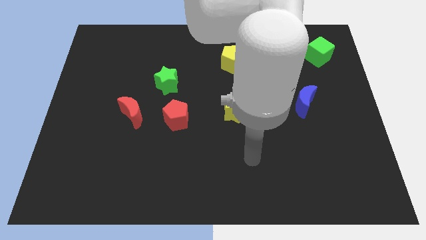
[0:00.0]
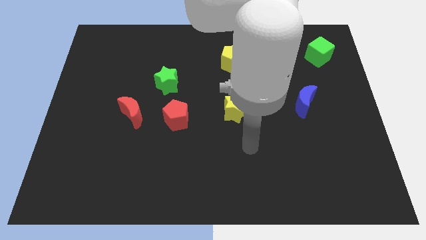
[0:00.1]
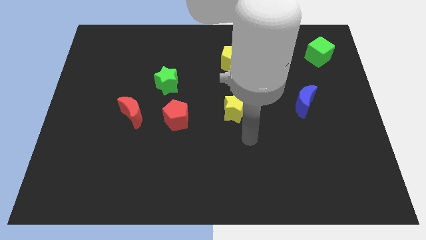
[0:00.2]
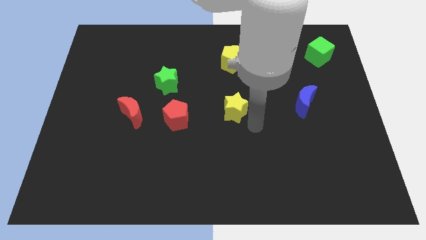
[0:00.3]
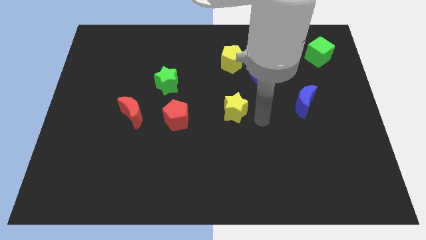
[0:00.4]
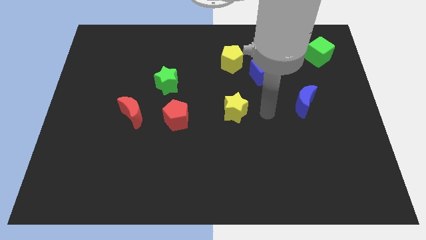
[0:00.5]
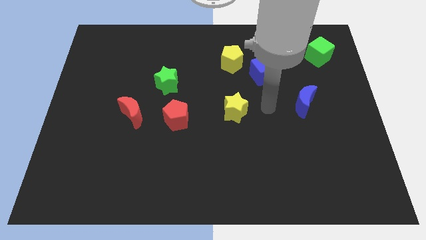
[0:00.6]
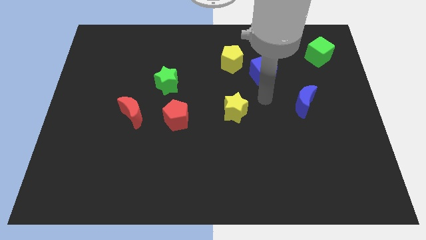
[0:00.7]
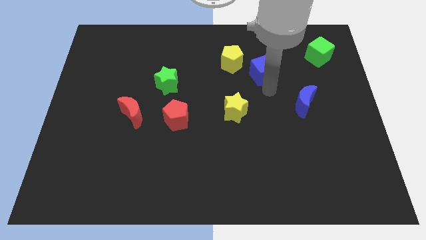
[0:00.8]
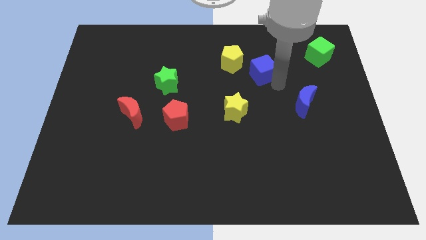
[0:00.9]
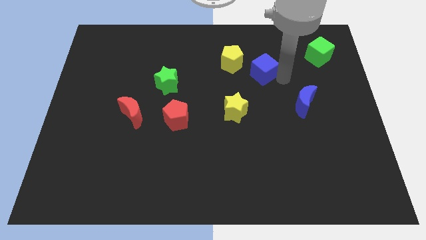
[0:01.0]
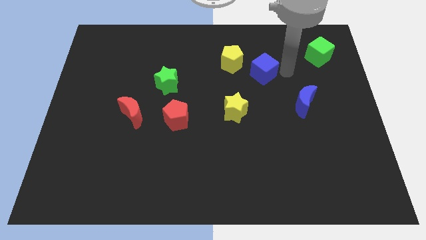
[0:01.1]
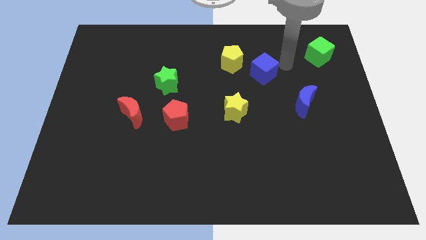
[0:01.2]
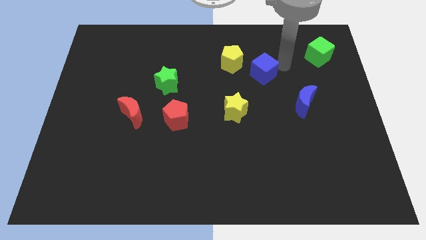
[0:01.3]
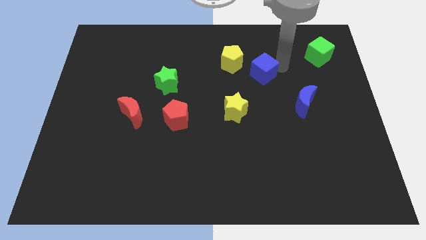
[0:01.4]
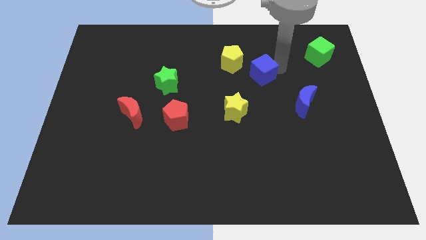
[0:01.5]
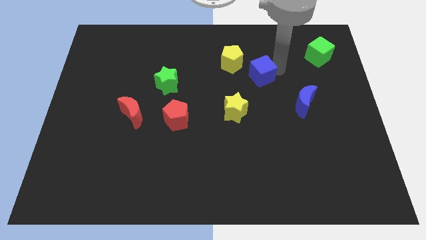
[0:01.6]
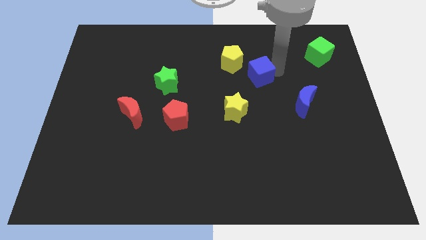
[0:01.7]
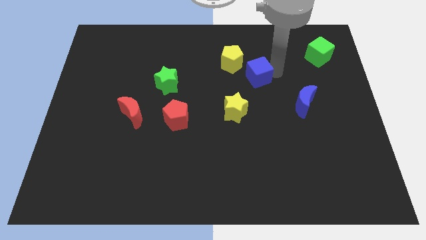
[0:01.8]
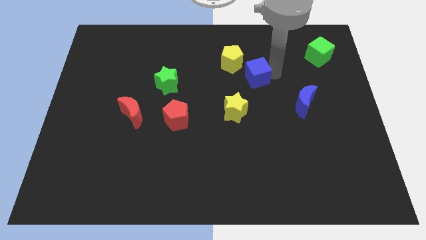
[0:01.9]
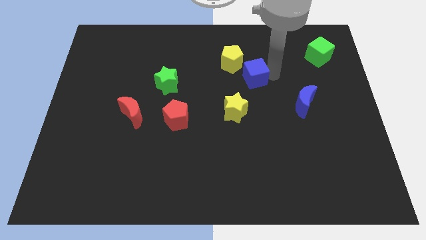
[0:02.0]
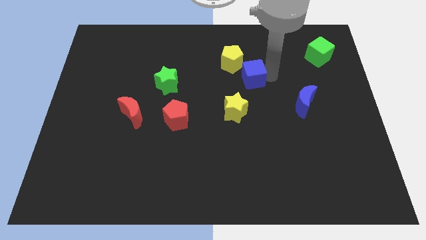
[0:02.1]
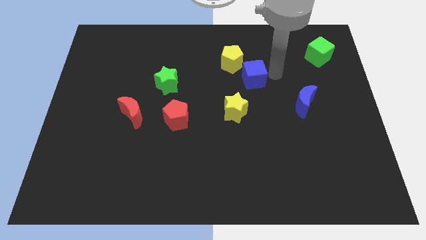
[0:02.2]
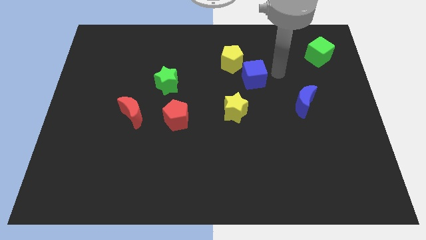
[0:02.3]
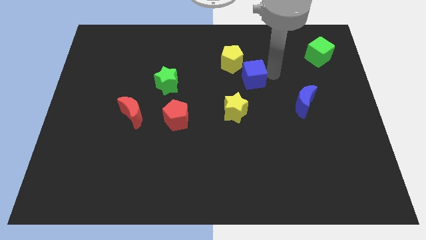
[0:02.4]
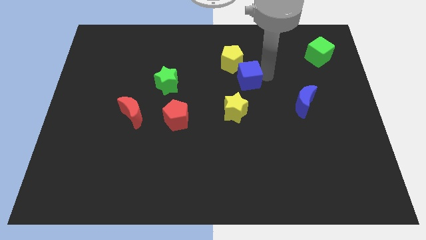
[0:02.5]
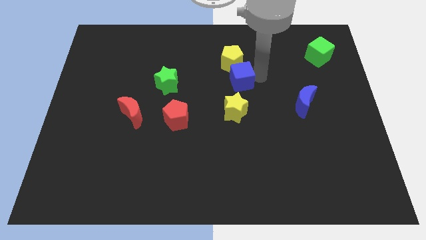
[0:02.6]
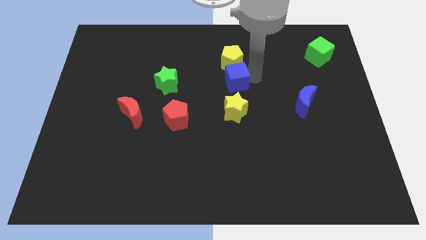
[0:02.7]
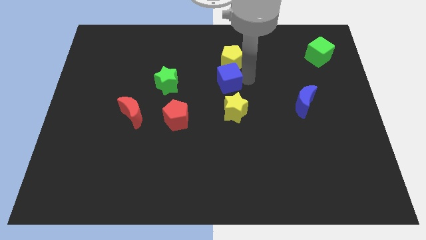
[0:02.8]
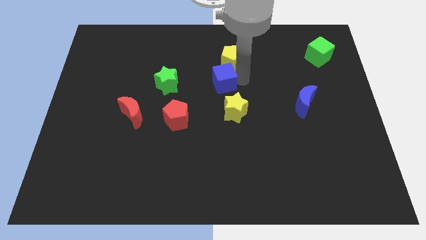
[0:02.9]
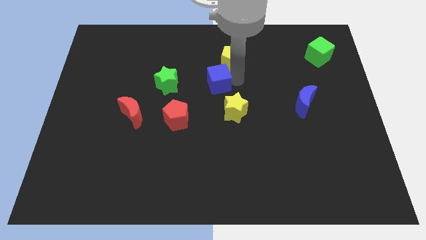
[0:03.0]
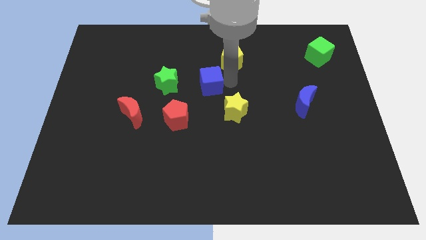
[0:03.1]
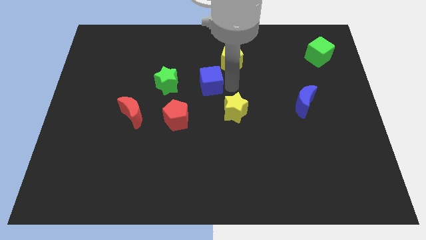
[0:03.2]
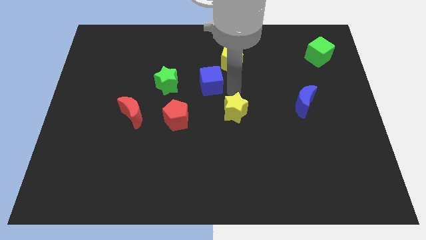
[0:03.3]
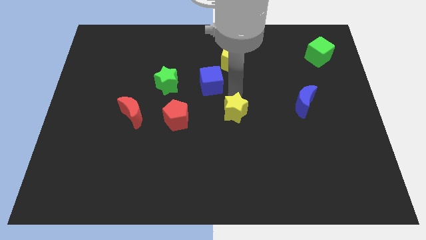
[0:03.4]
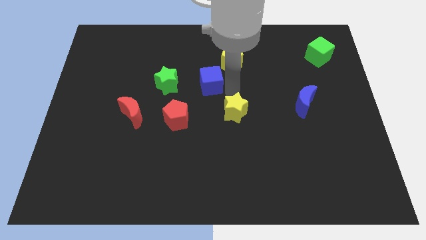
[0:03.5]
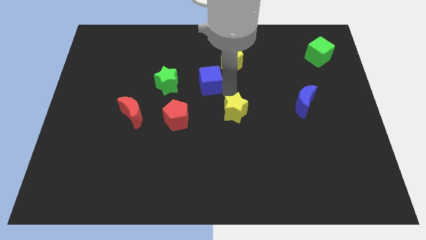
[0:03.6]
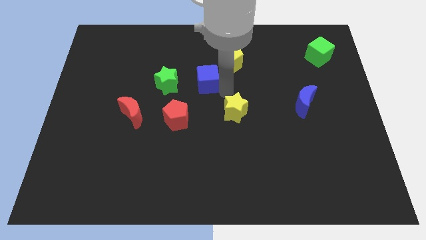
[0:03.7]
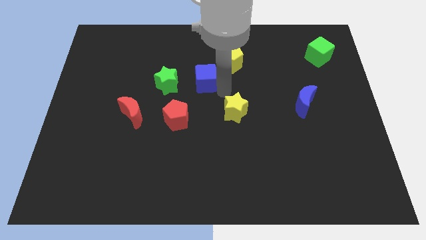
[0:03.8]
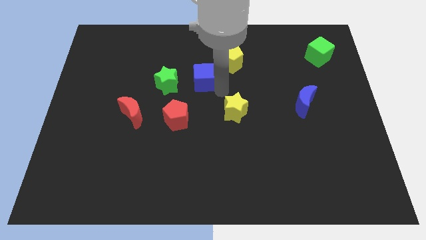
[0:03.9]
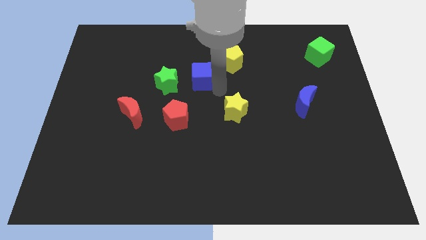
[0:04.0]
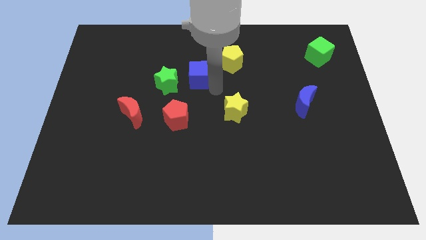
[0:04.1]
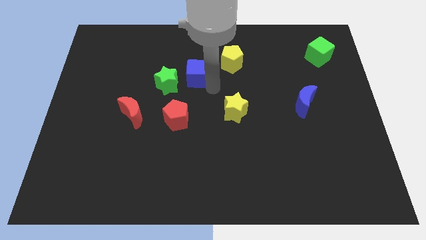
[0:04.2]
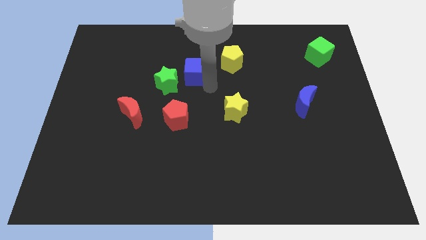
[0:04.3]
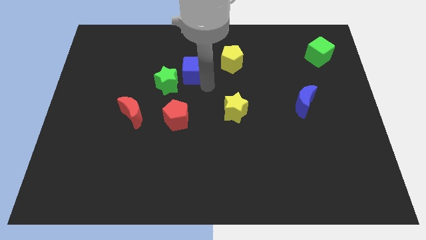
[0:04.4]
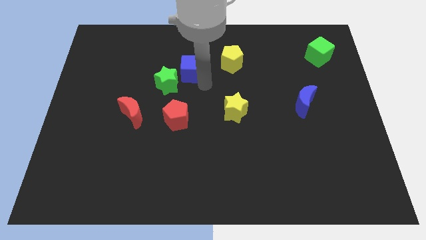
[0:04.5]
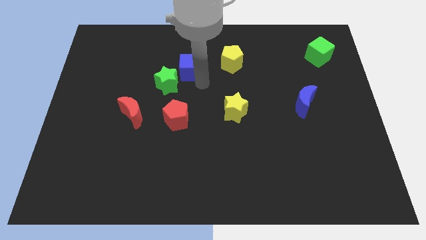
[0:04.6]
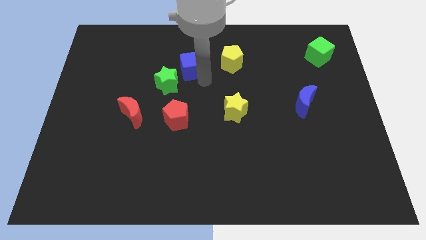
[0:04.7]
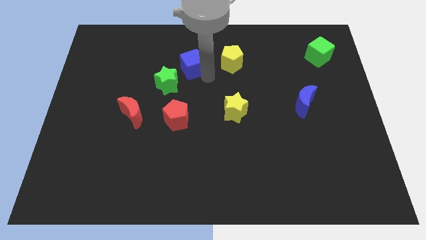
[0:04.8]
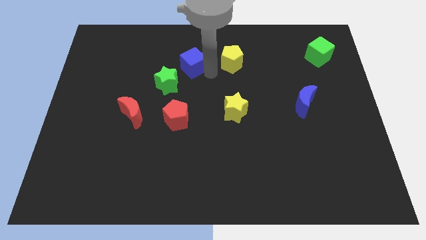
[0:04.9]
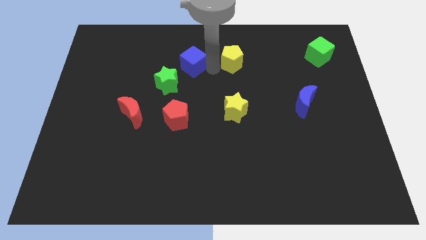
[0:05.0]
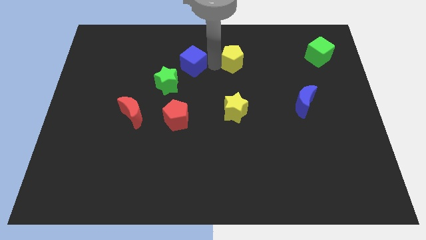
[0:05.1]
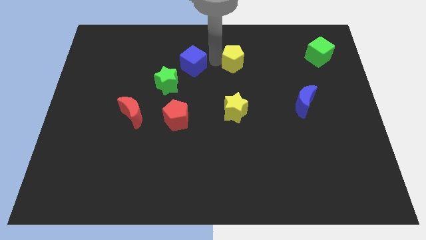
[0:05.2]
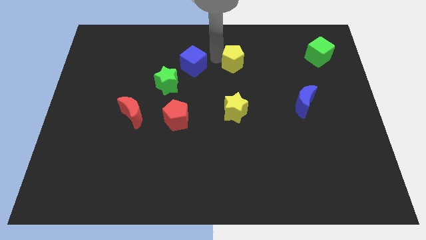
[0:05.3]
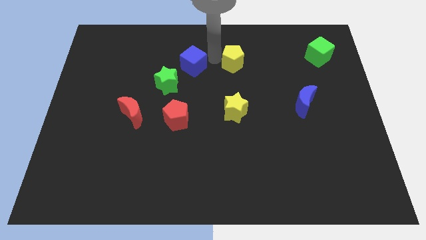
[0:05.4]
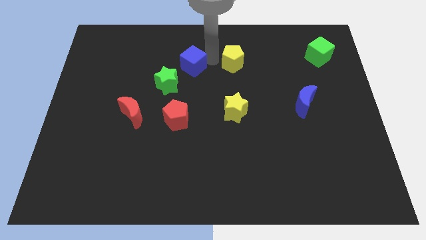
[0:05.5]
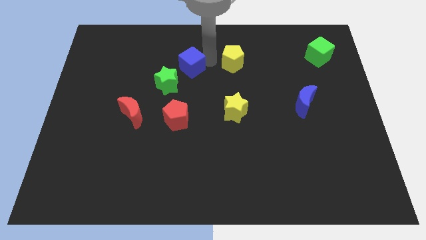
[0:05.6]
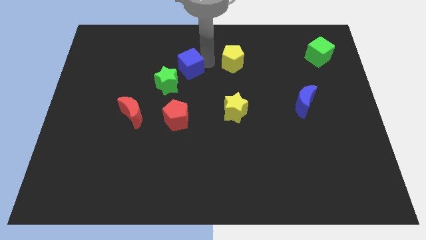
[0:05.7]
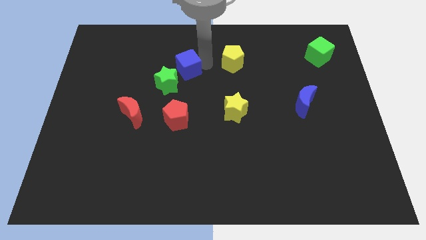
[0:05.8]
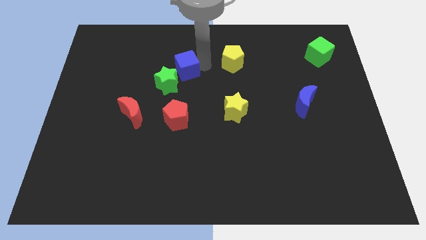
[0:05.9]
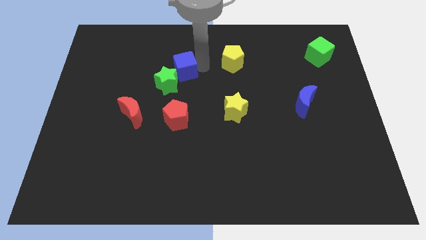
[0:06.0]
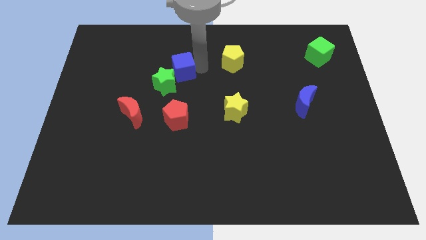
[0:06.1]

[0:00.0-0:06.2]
move the blue cube to the left

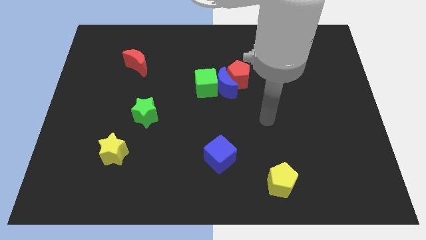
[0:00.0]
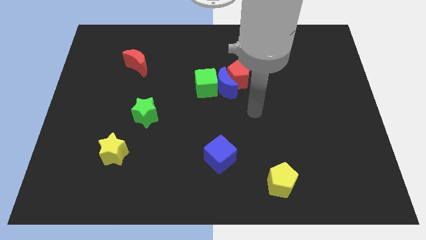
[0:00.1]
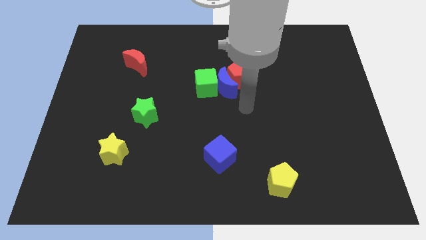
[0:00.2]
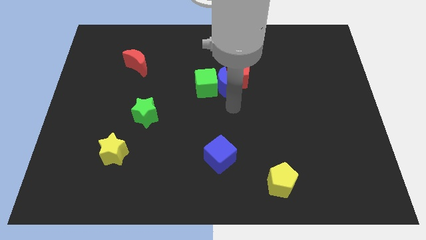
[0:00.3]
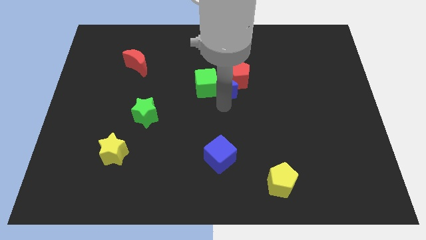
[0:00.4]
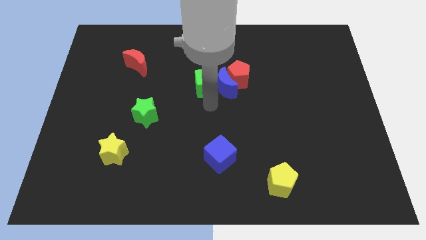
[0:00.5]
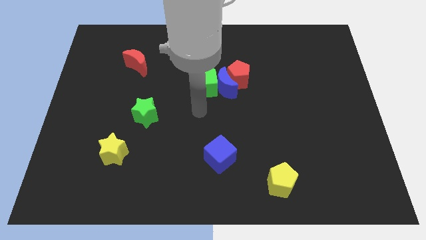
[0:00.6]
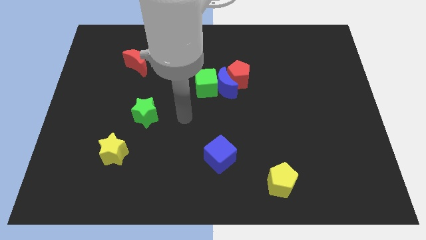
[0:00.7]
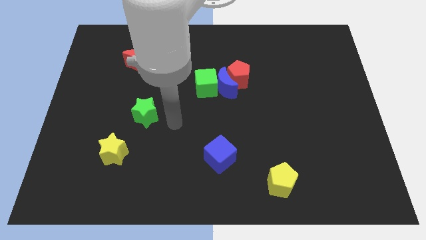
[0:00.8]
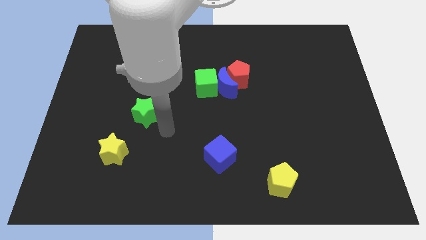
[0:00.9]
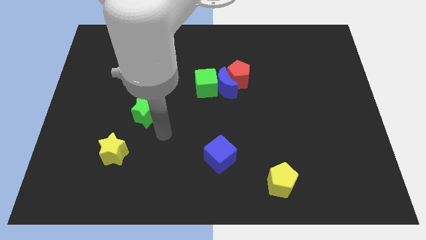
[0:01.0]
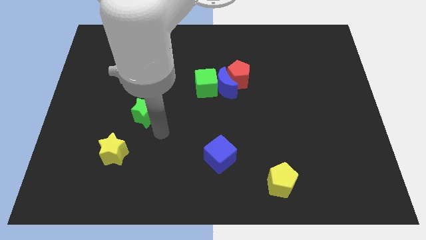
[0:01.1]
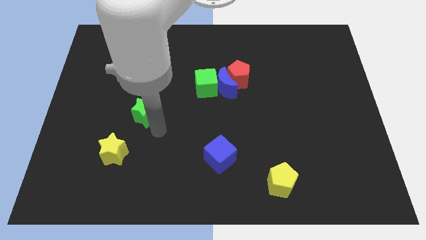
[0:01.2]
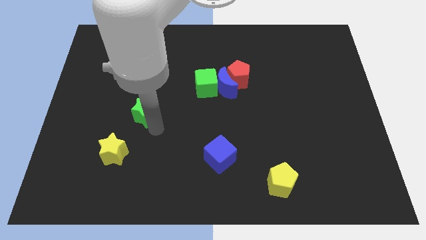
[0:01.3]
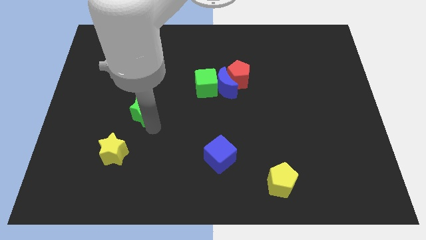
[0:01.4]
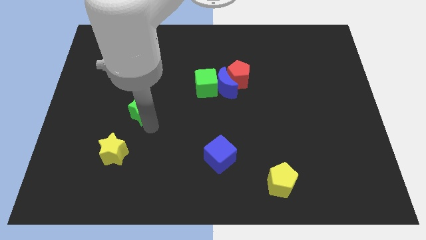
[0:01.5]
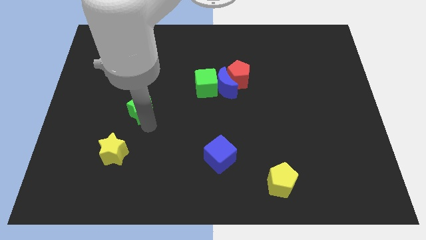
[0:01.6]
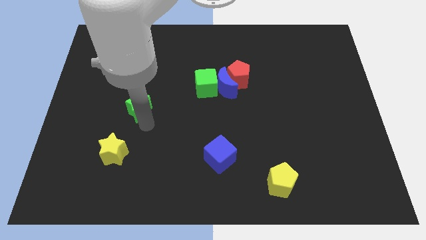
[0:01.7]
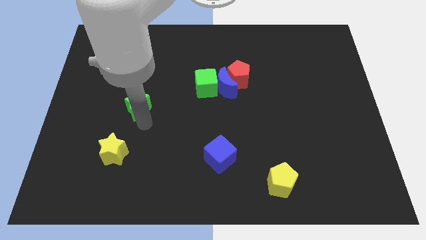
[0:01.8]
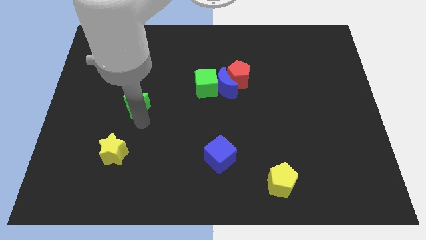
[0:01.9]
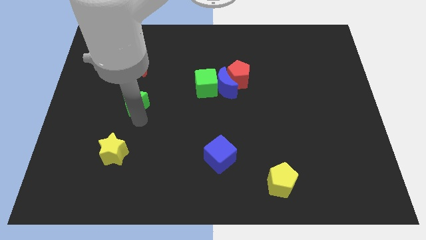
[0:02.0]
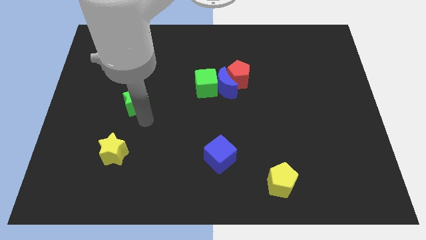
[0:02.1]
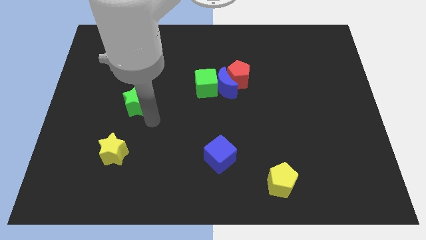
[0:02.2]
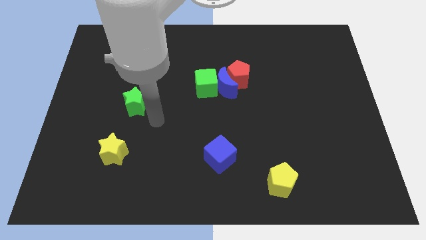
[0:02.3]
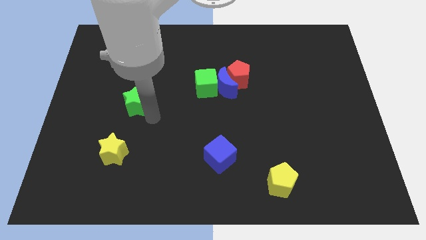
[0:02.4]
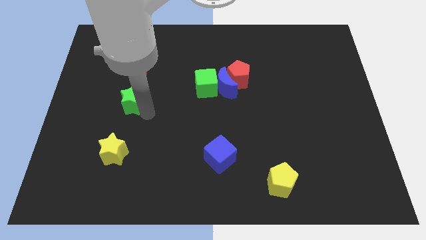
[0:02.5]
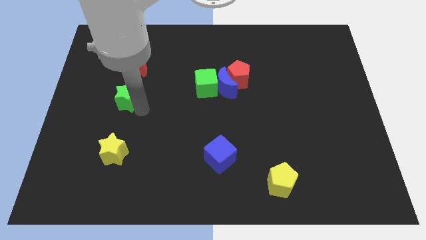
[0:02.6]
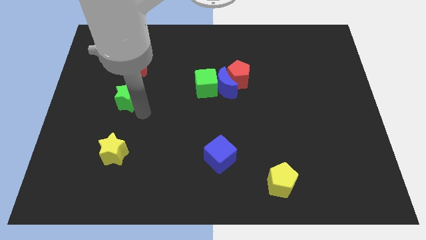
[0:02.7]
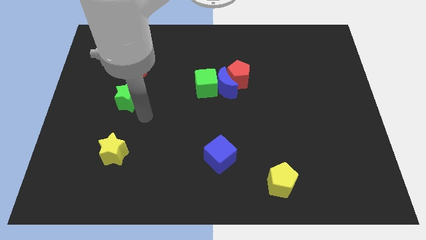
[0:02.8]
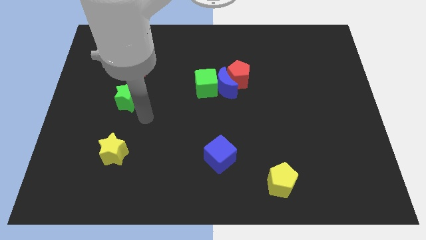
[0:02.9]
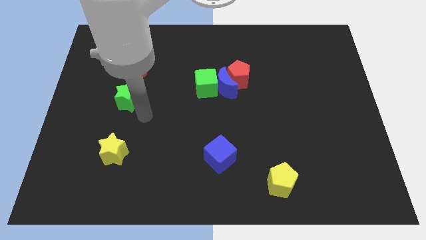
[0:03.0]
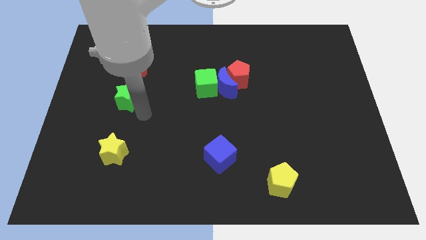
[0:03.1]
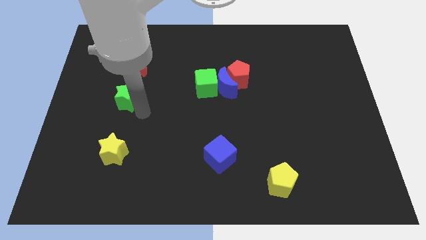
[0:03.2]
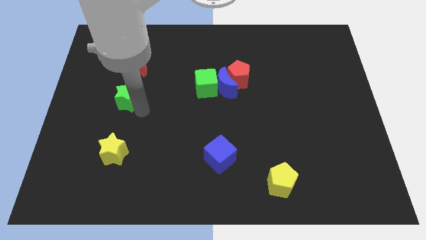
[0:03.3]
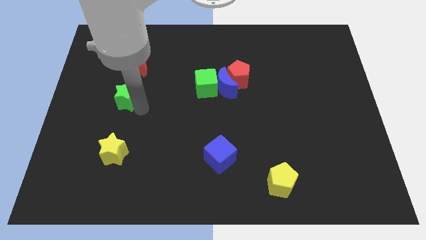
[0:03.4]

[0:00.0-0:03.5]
slightly move the green star upwards and left
